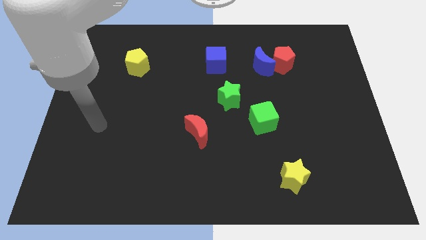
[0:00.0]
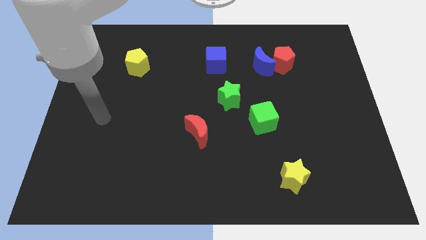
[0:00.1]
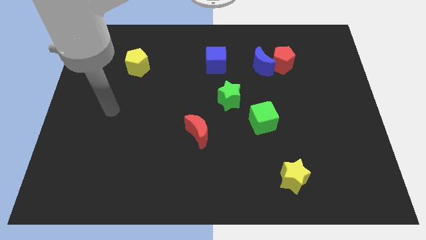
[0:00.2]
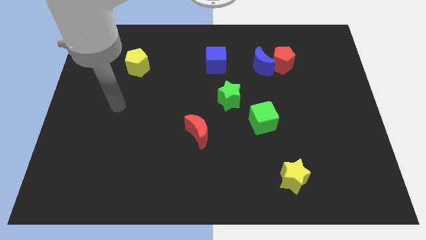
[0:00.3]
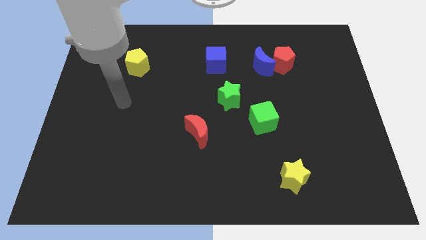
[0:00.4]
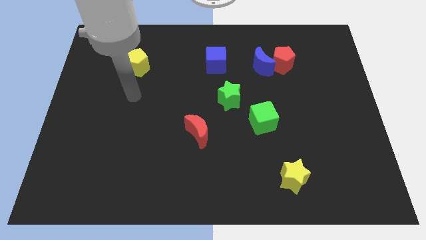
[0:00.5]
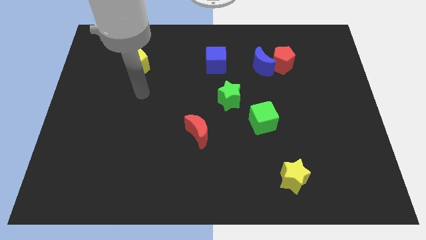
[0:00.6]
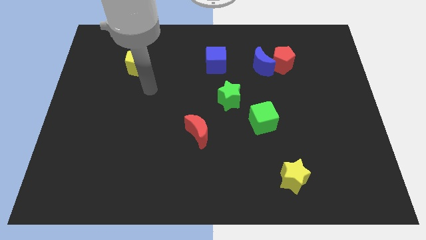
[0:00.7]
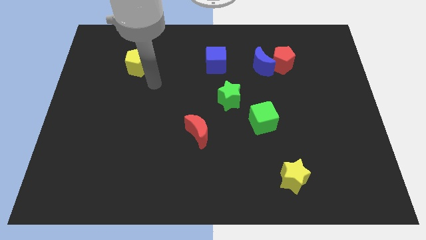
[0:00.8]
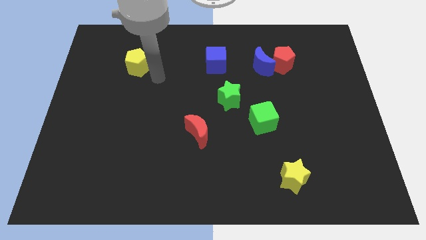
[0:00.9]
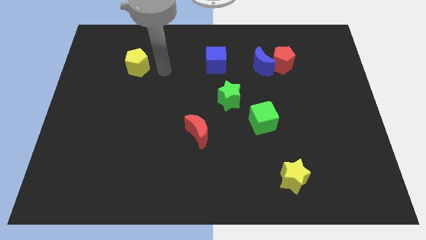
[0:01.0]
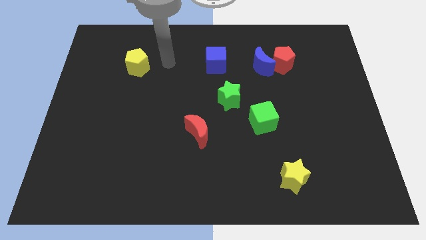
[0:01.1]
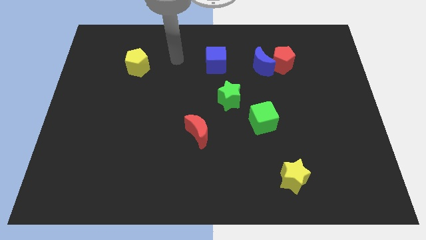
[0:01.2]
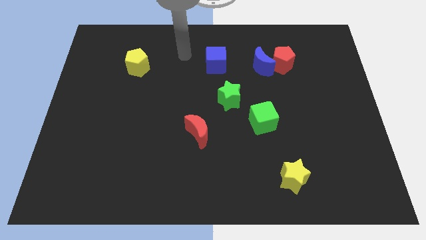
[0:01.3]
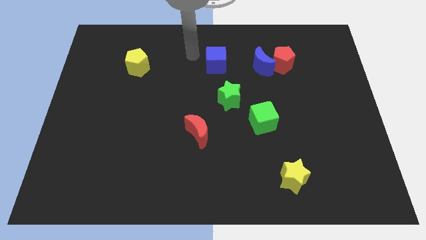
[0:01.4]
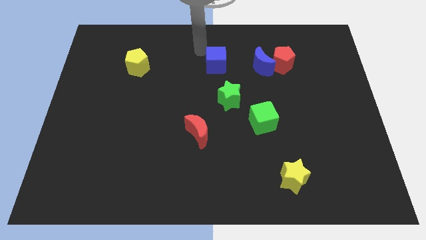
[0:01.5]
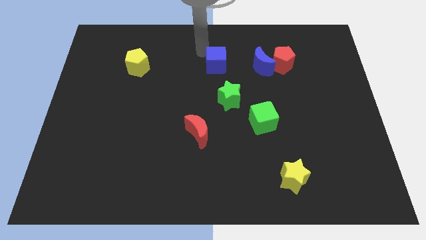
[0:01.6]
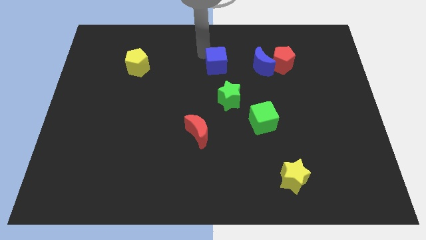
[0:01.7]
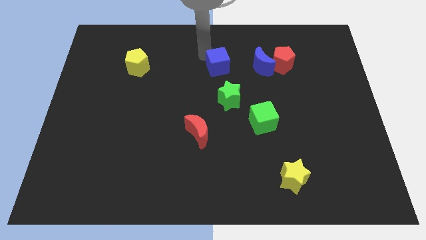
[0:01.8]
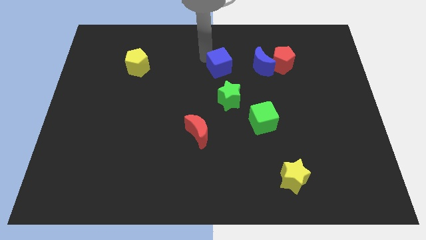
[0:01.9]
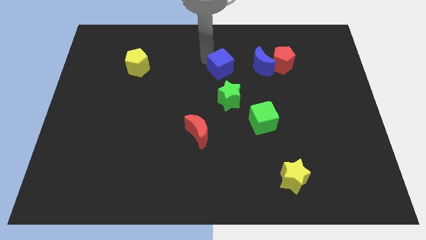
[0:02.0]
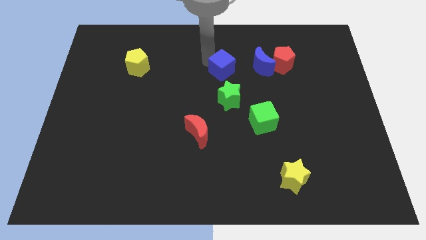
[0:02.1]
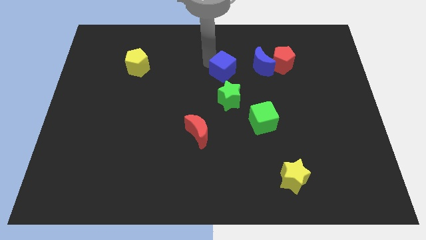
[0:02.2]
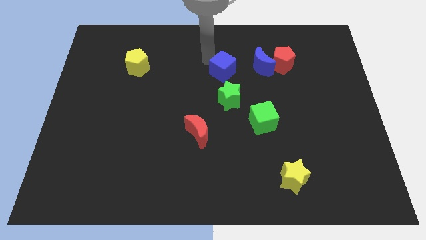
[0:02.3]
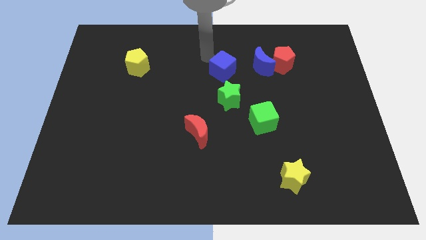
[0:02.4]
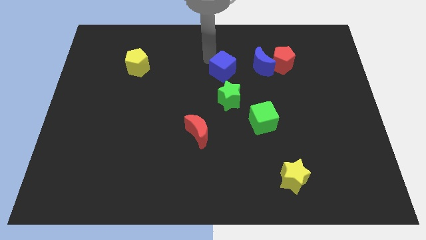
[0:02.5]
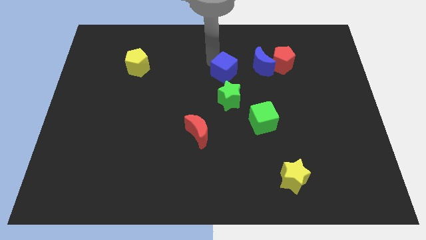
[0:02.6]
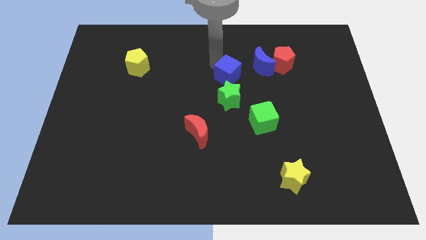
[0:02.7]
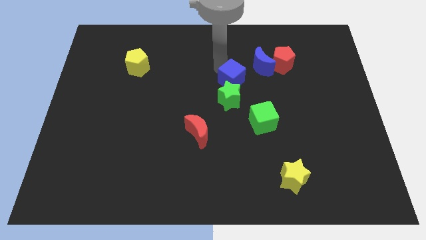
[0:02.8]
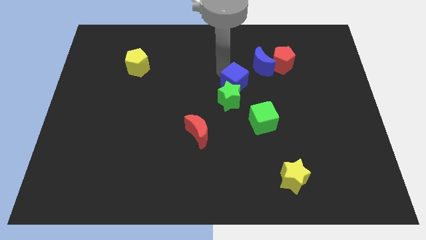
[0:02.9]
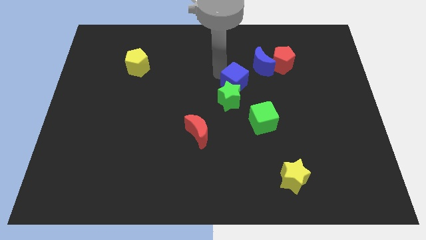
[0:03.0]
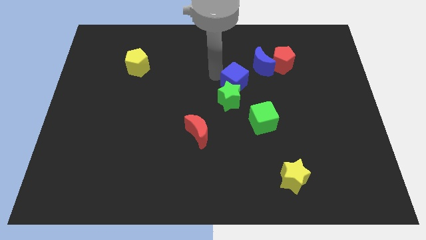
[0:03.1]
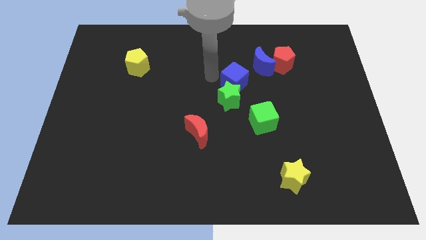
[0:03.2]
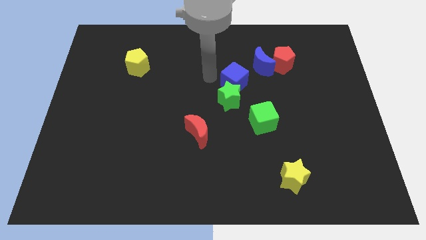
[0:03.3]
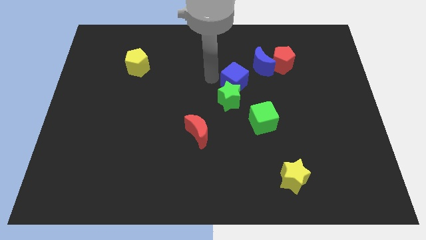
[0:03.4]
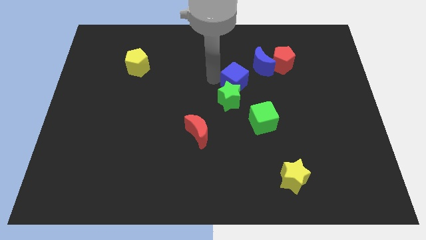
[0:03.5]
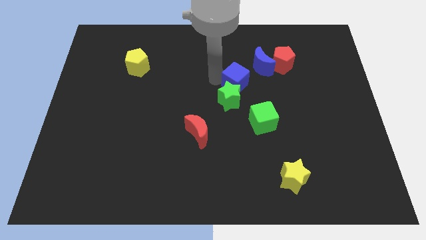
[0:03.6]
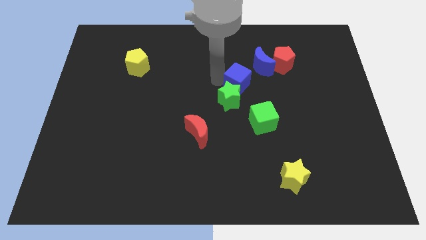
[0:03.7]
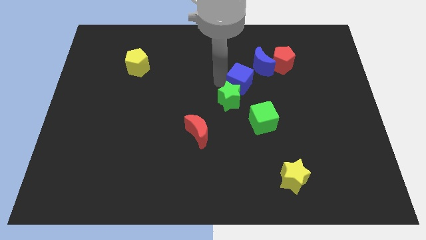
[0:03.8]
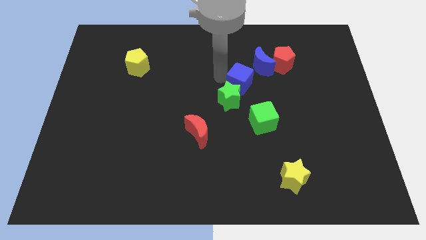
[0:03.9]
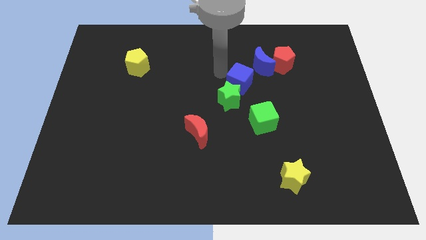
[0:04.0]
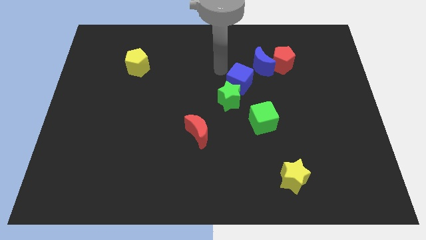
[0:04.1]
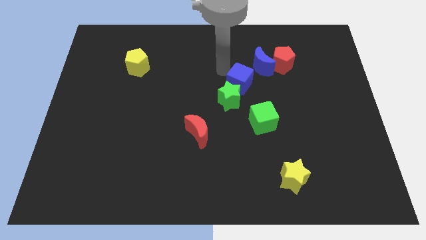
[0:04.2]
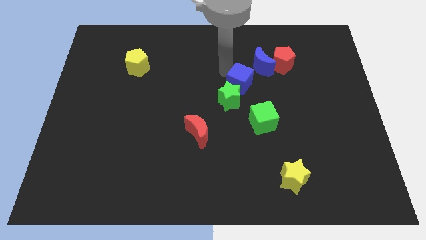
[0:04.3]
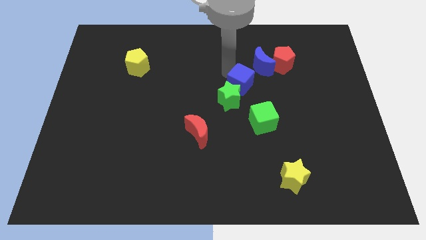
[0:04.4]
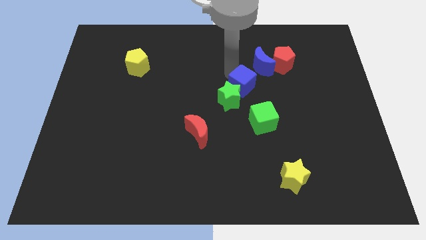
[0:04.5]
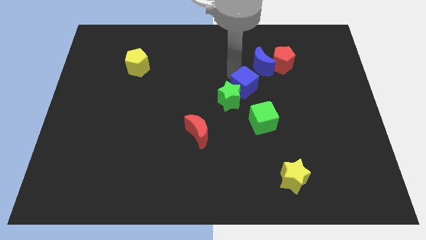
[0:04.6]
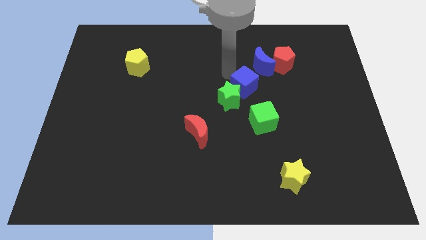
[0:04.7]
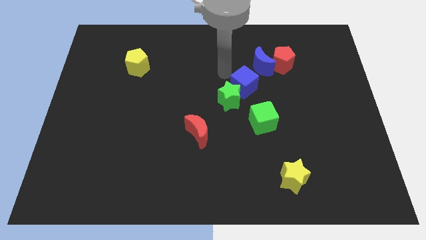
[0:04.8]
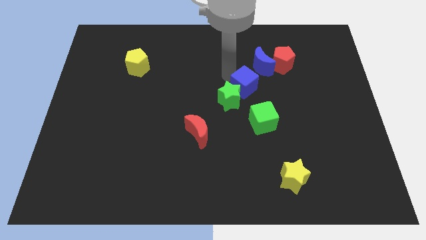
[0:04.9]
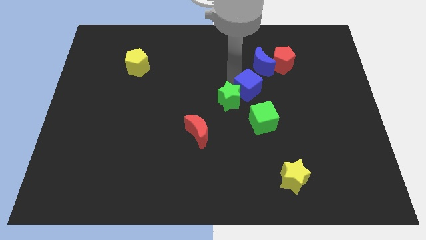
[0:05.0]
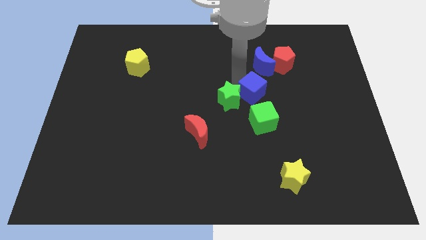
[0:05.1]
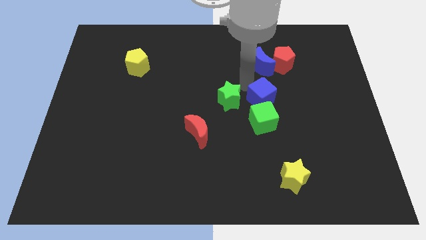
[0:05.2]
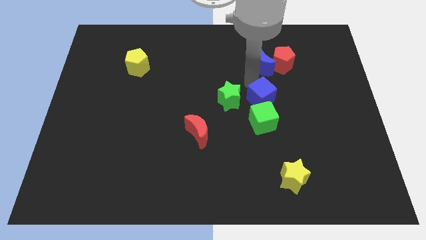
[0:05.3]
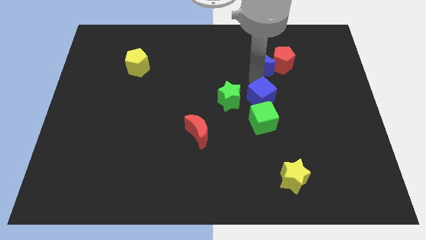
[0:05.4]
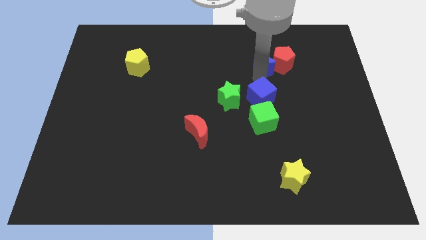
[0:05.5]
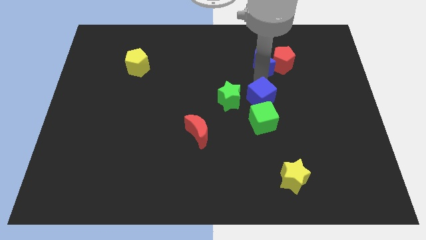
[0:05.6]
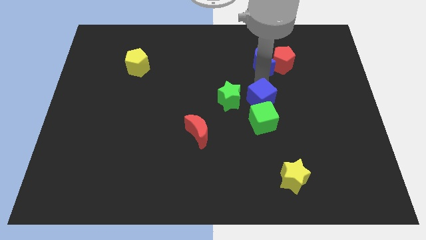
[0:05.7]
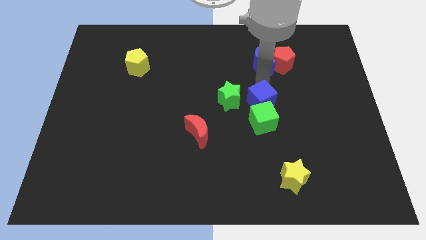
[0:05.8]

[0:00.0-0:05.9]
push the blue cube towards the green cube

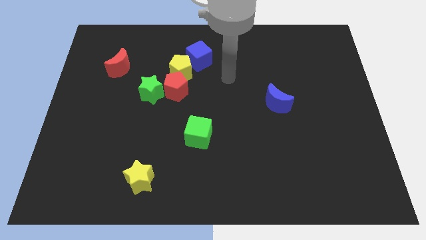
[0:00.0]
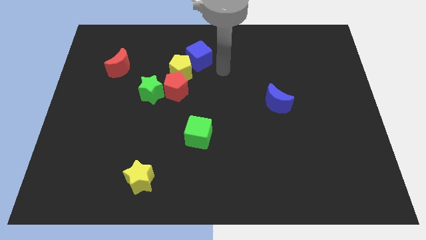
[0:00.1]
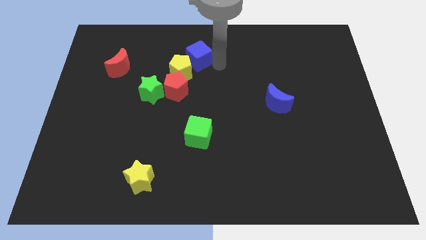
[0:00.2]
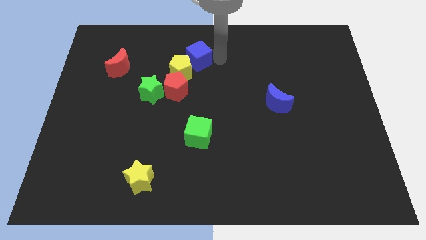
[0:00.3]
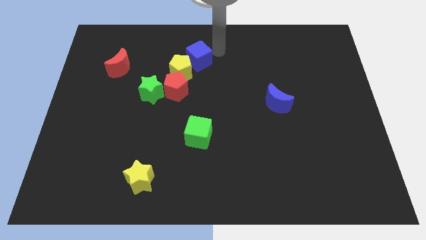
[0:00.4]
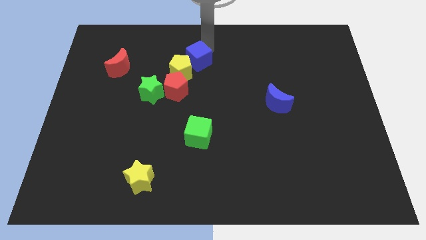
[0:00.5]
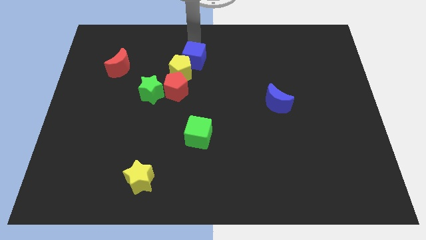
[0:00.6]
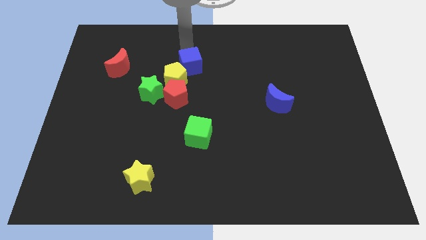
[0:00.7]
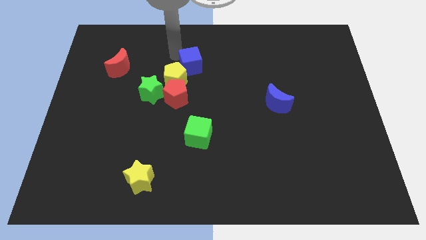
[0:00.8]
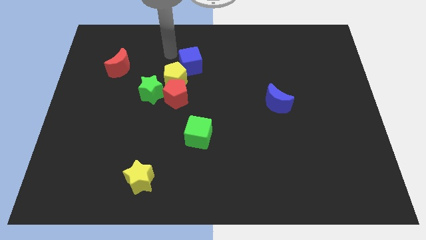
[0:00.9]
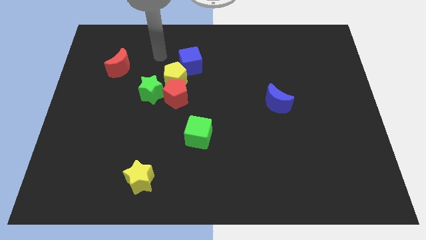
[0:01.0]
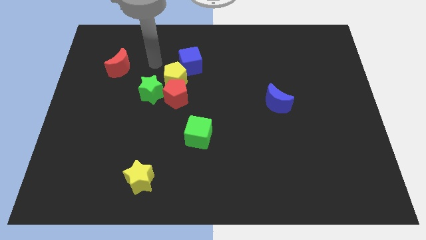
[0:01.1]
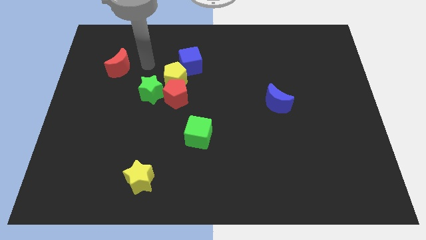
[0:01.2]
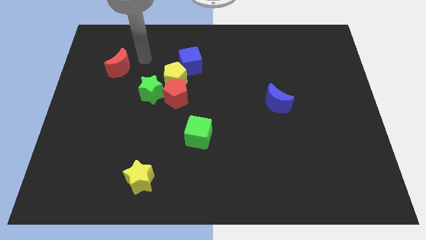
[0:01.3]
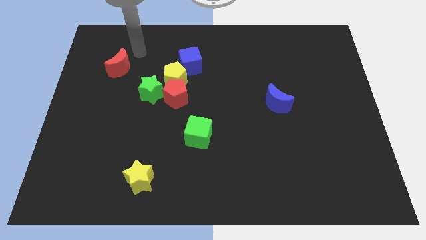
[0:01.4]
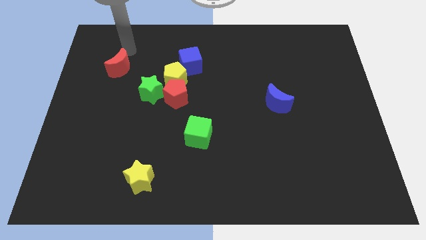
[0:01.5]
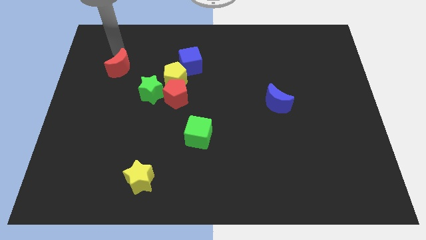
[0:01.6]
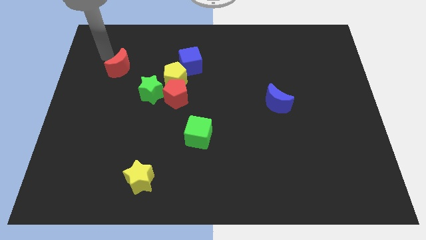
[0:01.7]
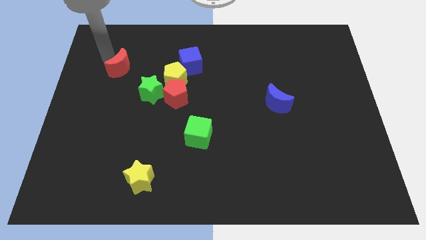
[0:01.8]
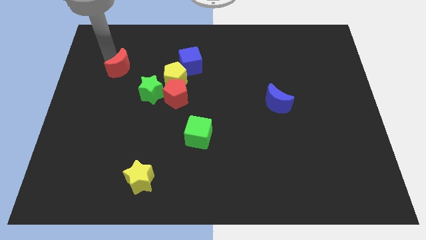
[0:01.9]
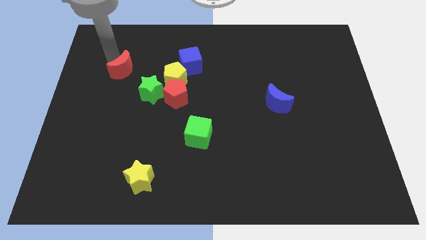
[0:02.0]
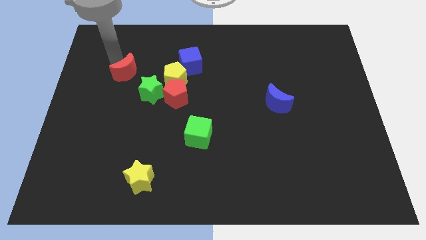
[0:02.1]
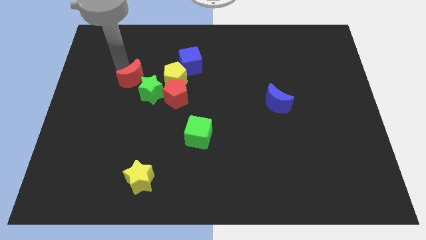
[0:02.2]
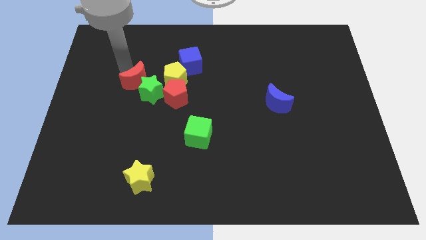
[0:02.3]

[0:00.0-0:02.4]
push the red moon to the green star
